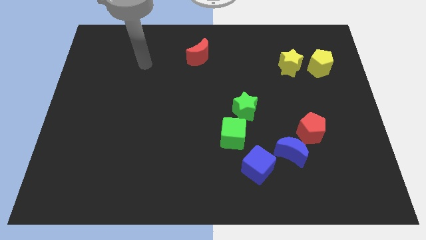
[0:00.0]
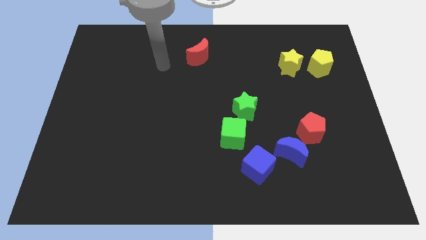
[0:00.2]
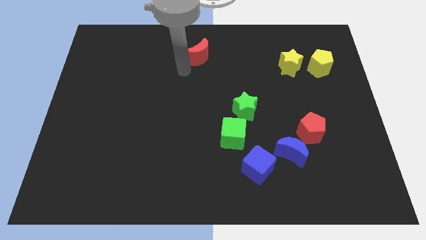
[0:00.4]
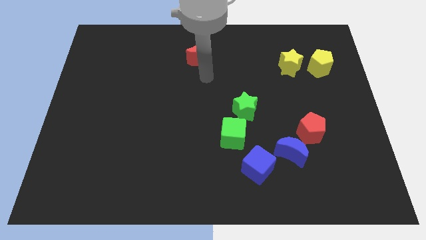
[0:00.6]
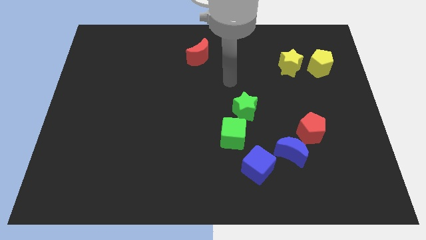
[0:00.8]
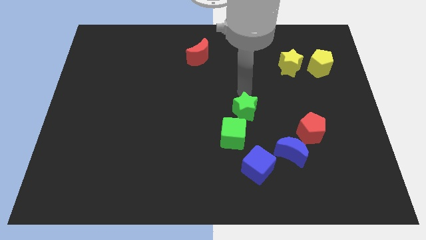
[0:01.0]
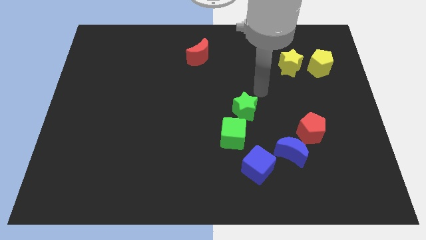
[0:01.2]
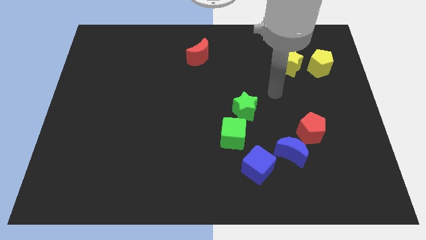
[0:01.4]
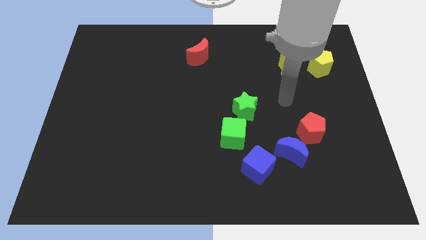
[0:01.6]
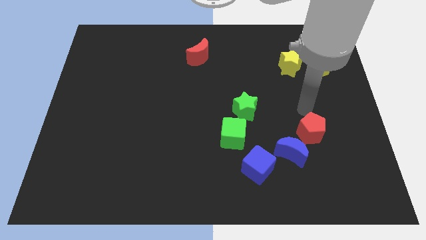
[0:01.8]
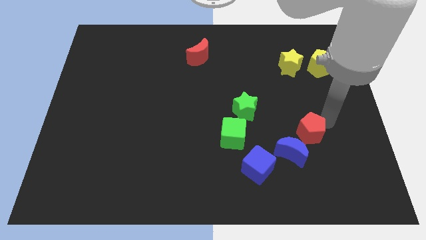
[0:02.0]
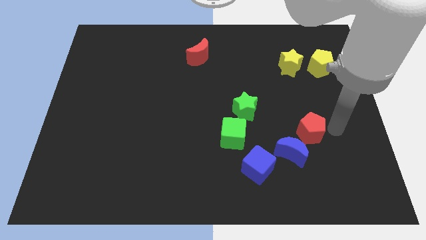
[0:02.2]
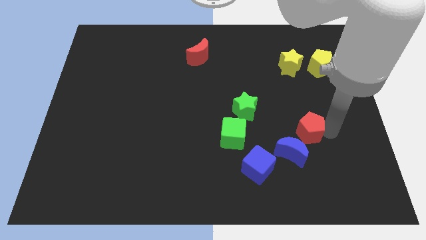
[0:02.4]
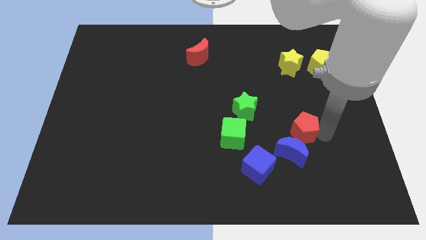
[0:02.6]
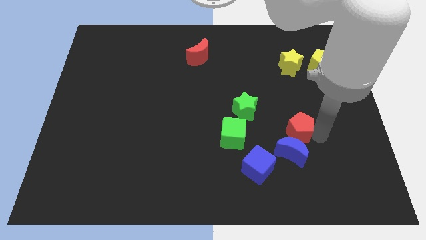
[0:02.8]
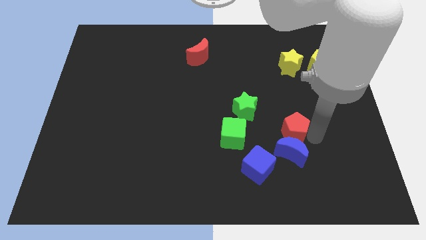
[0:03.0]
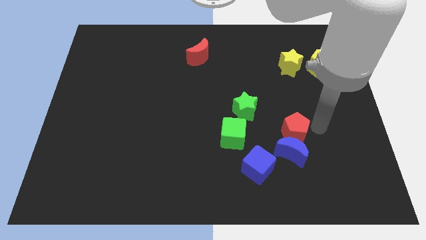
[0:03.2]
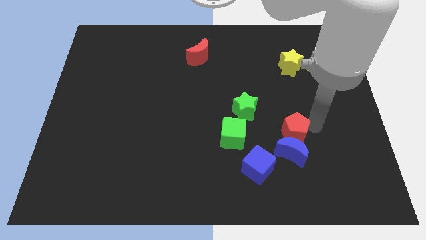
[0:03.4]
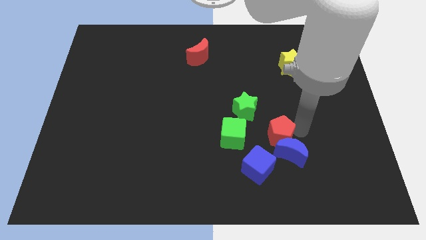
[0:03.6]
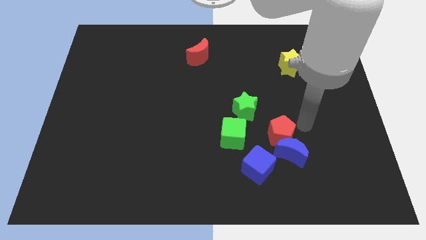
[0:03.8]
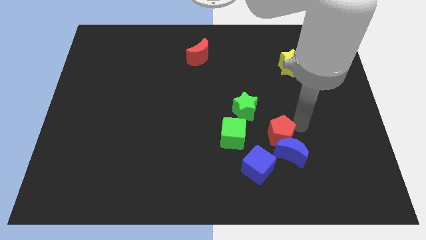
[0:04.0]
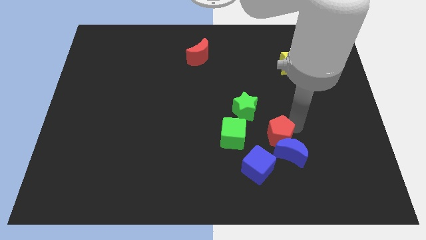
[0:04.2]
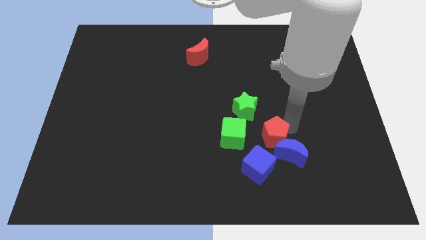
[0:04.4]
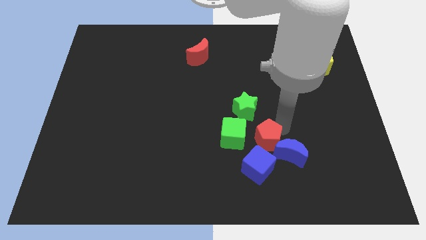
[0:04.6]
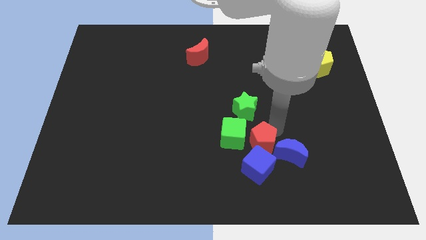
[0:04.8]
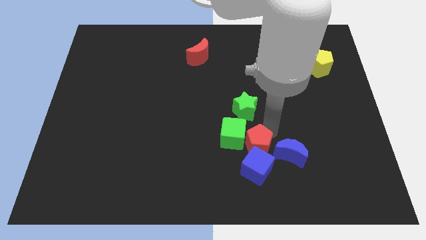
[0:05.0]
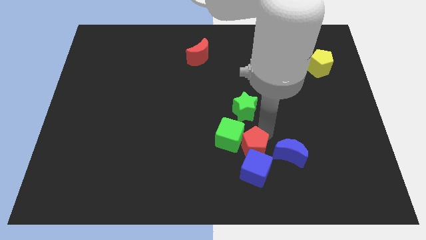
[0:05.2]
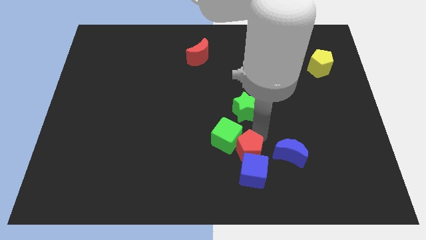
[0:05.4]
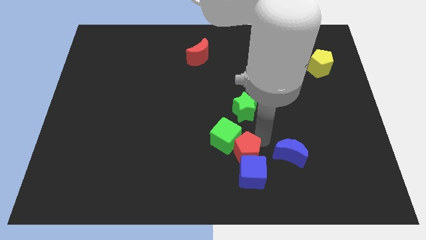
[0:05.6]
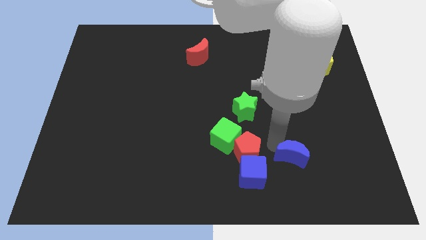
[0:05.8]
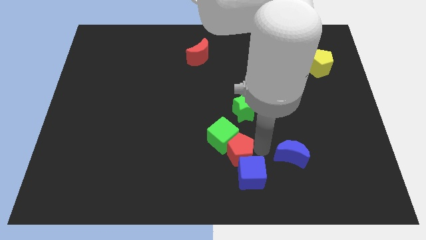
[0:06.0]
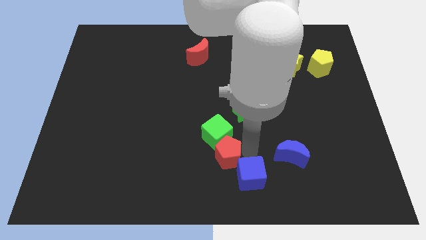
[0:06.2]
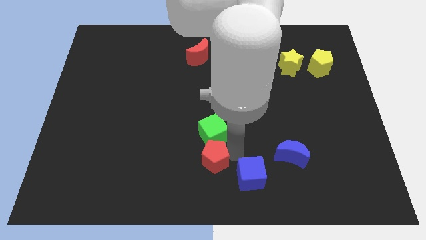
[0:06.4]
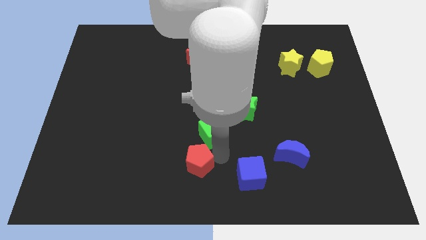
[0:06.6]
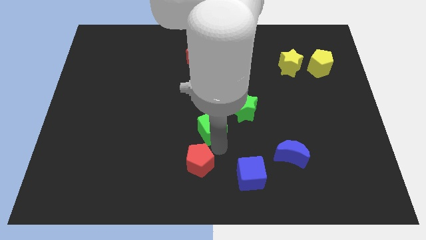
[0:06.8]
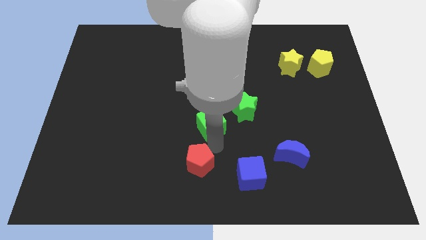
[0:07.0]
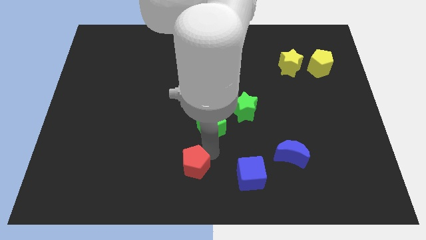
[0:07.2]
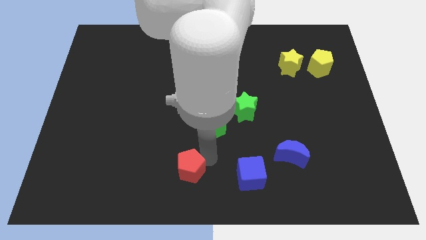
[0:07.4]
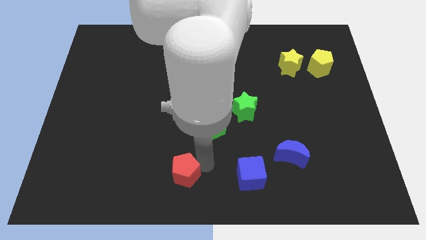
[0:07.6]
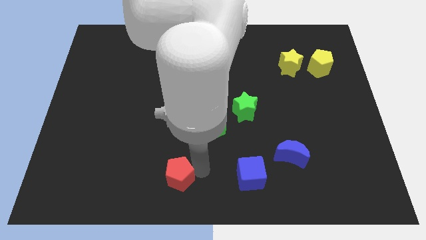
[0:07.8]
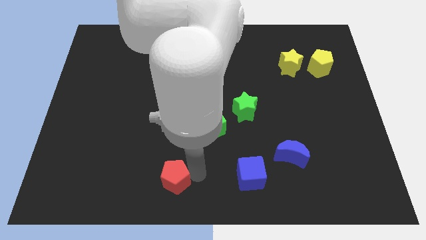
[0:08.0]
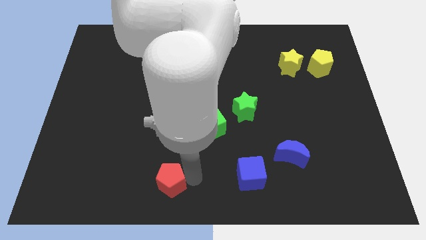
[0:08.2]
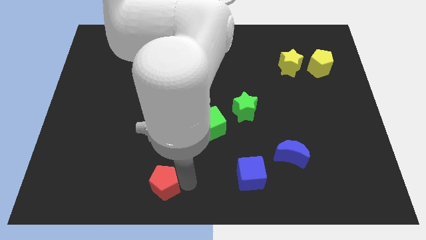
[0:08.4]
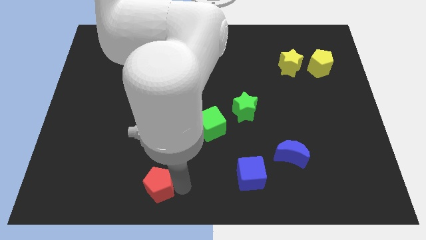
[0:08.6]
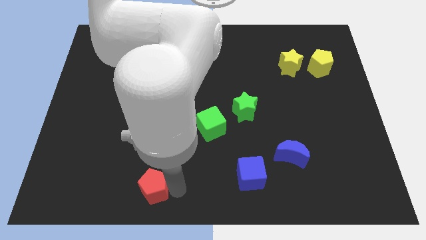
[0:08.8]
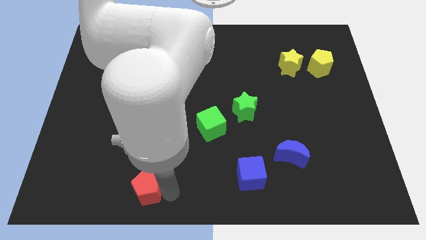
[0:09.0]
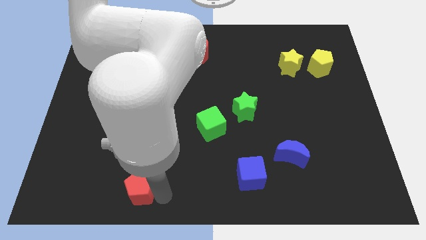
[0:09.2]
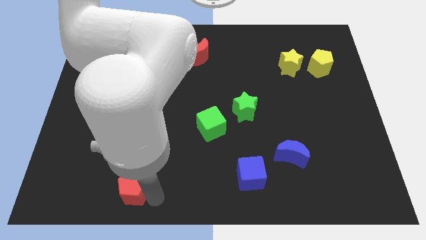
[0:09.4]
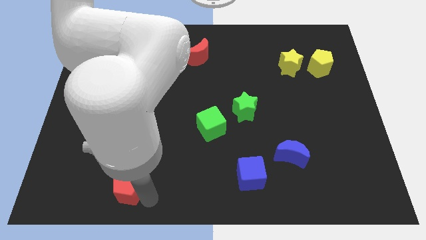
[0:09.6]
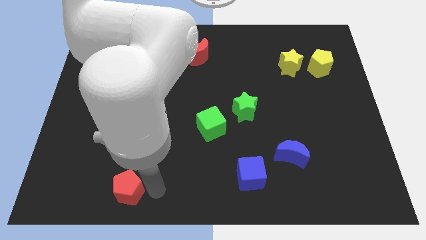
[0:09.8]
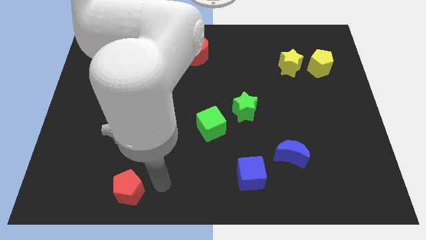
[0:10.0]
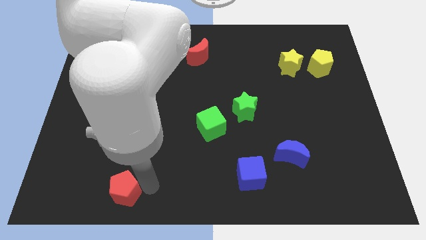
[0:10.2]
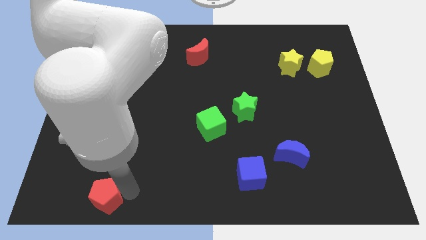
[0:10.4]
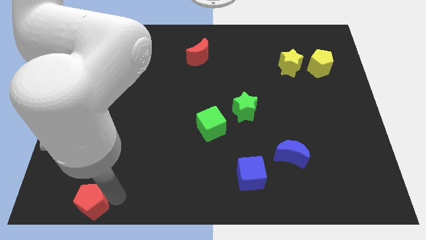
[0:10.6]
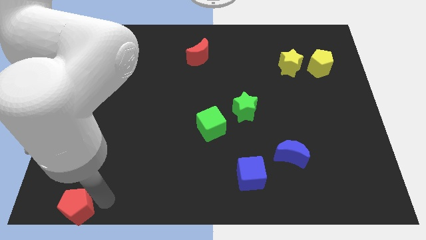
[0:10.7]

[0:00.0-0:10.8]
move the red pentagon to the bottom left corner

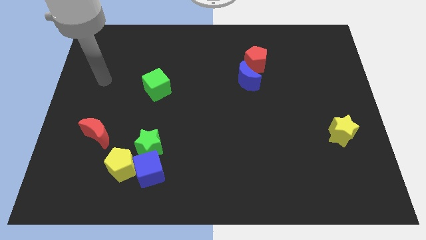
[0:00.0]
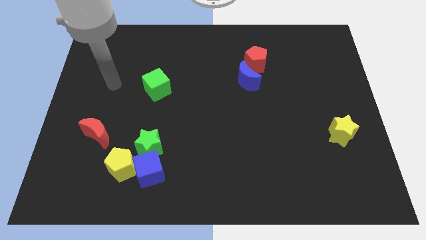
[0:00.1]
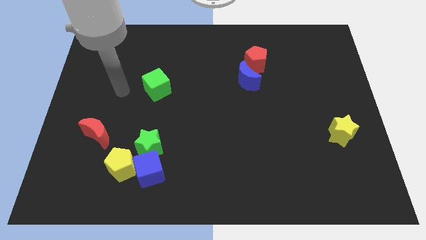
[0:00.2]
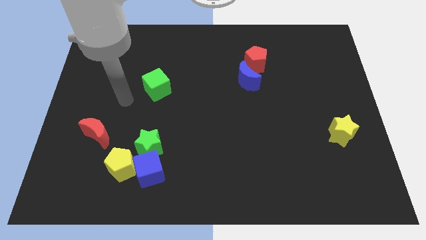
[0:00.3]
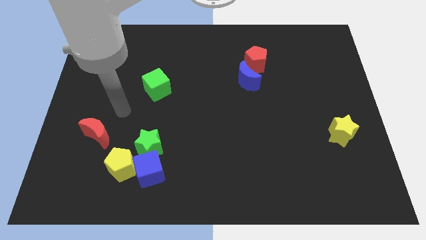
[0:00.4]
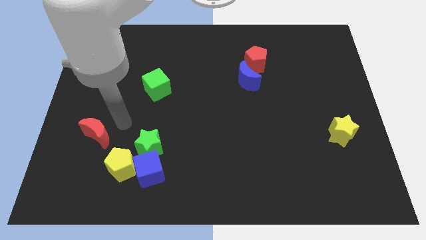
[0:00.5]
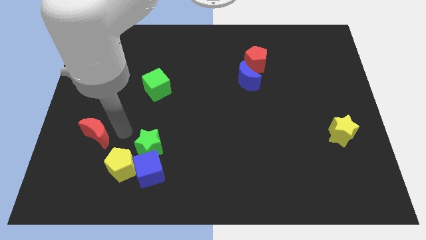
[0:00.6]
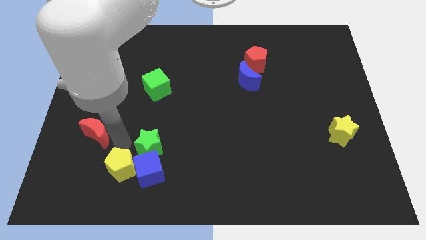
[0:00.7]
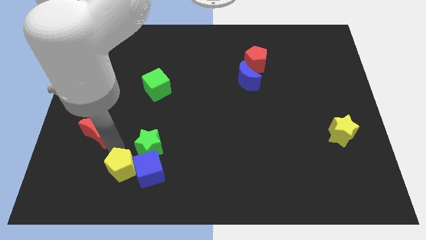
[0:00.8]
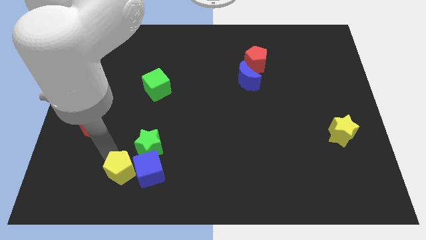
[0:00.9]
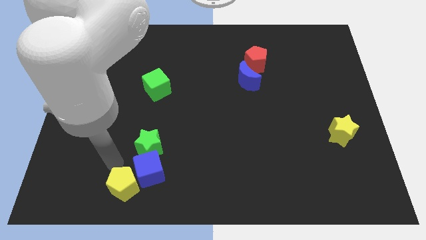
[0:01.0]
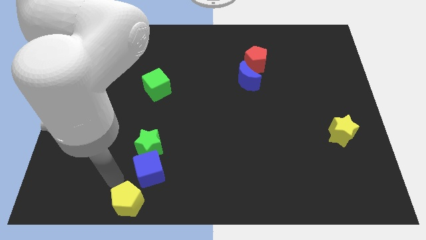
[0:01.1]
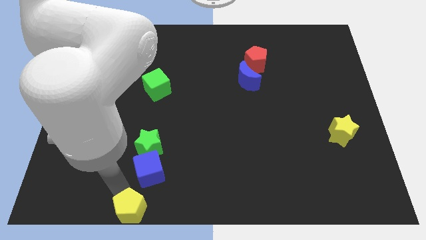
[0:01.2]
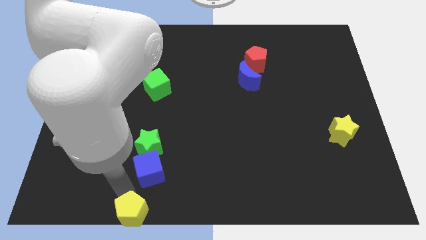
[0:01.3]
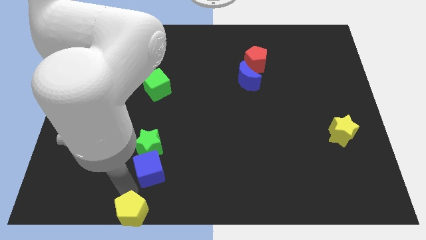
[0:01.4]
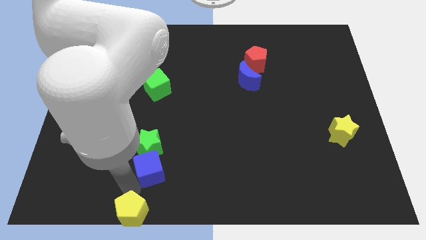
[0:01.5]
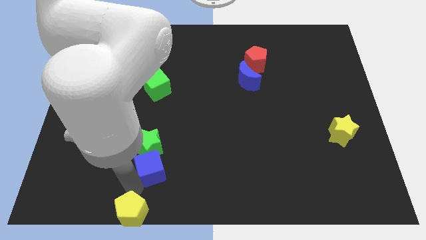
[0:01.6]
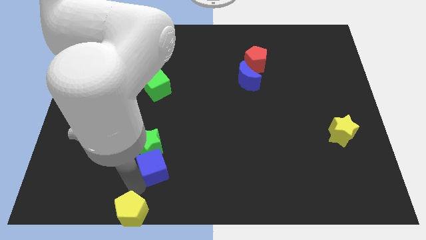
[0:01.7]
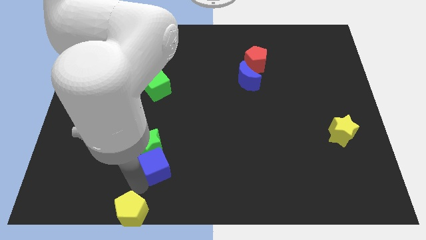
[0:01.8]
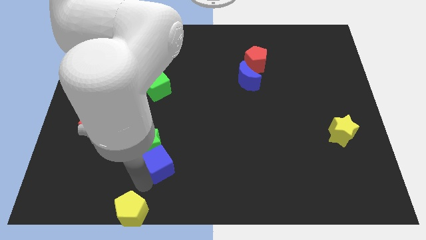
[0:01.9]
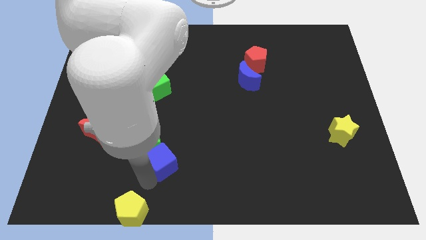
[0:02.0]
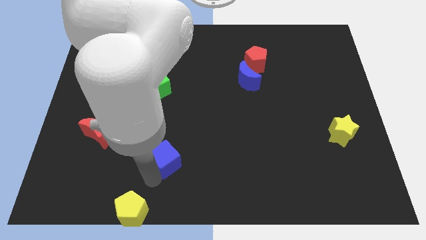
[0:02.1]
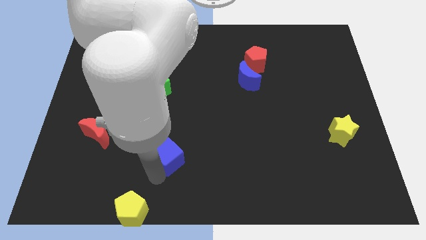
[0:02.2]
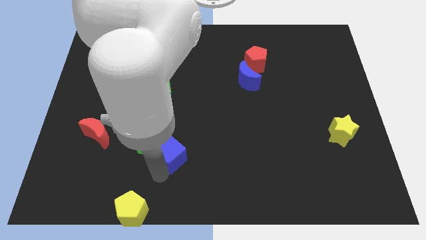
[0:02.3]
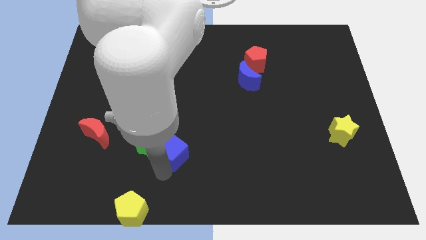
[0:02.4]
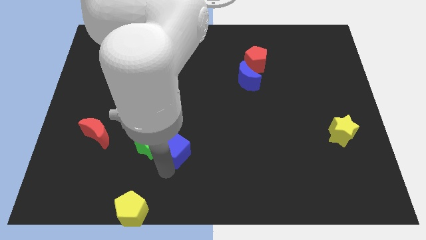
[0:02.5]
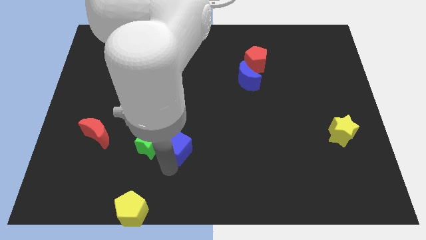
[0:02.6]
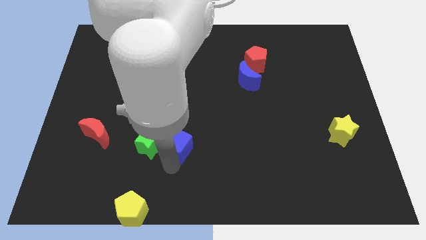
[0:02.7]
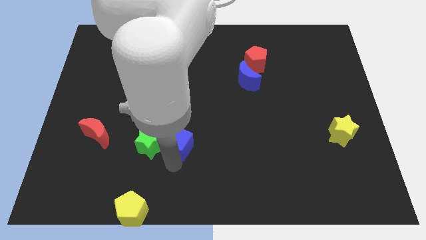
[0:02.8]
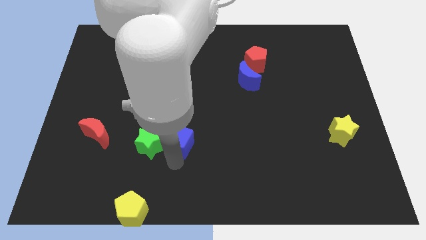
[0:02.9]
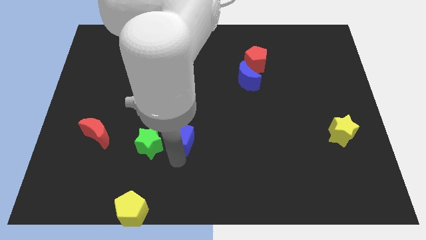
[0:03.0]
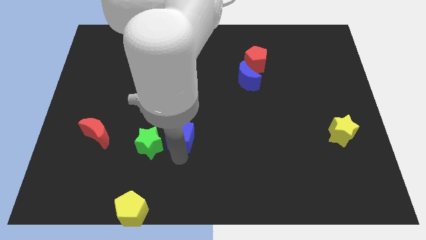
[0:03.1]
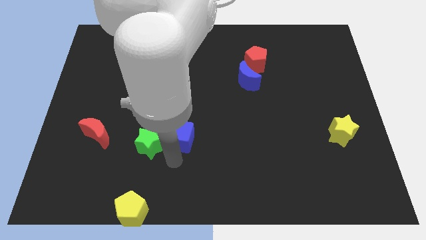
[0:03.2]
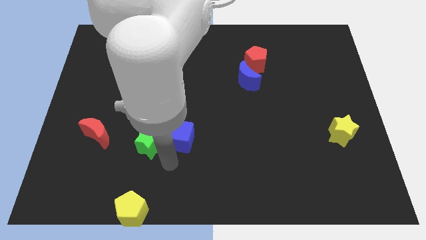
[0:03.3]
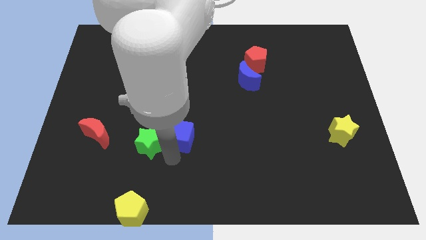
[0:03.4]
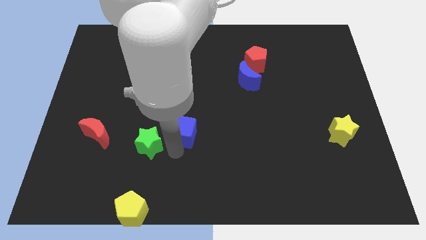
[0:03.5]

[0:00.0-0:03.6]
move the blue cube to the center
